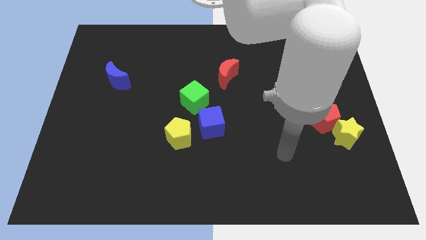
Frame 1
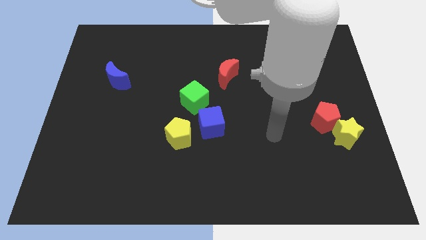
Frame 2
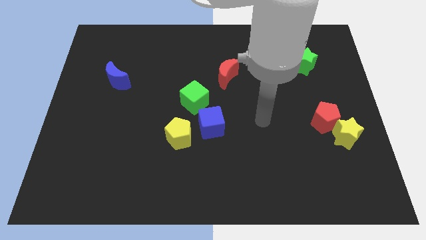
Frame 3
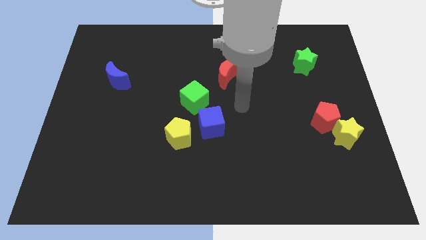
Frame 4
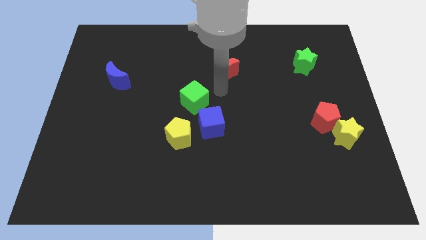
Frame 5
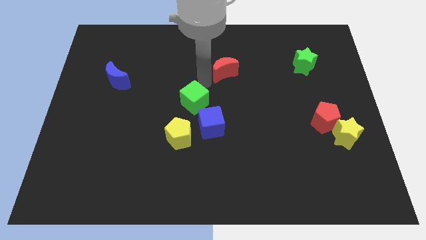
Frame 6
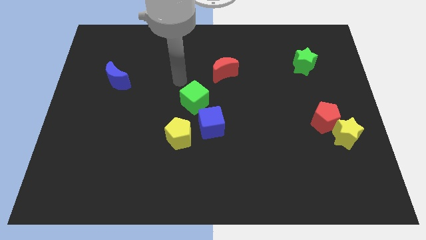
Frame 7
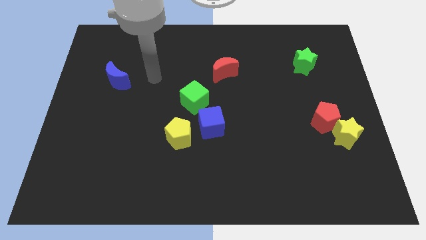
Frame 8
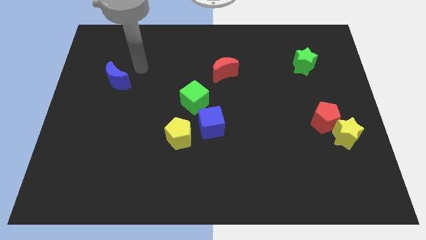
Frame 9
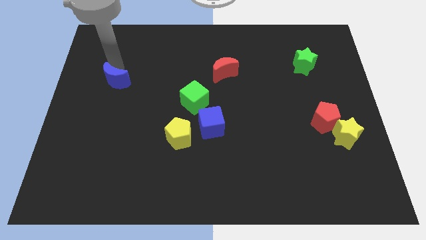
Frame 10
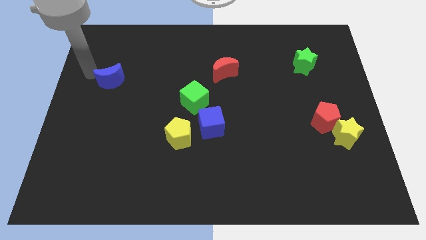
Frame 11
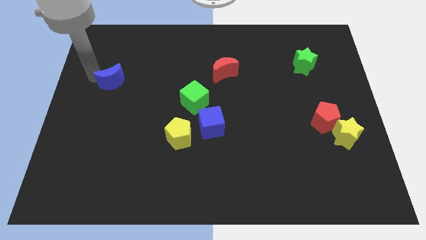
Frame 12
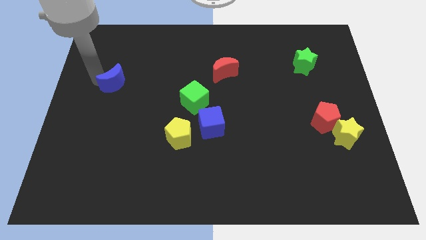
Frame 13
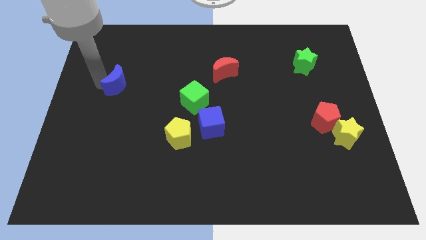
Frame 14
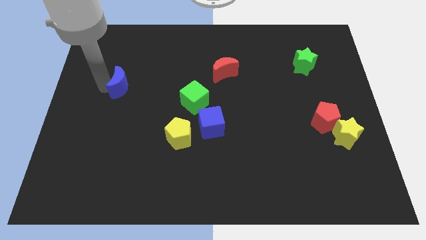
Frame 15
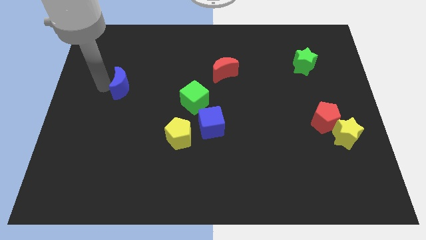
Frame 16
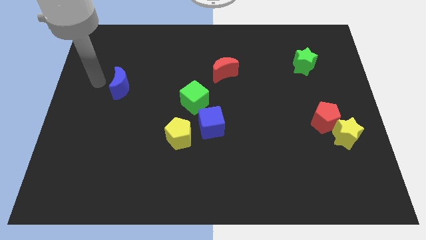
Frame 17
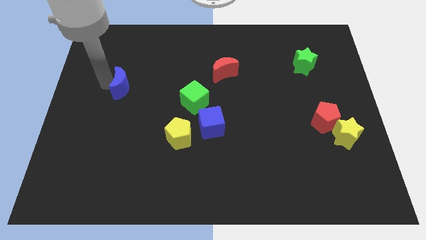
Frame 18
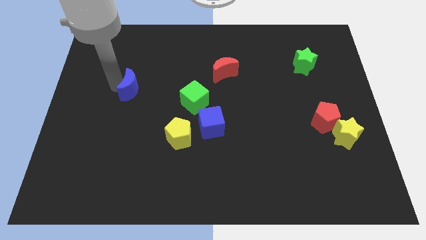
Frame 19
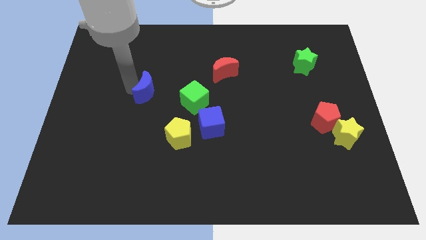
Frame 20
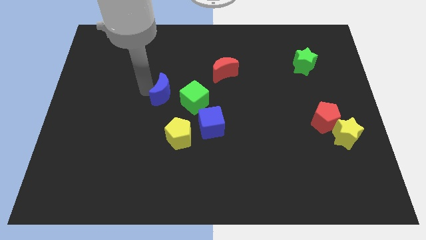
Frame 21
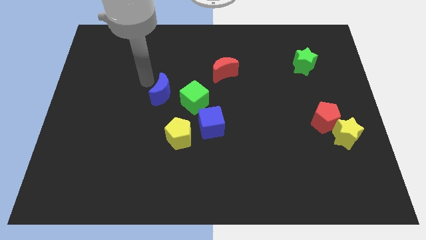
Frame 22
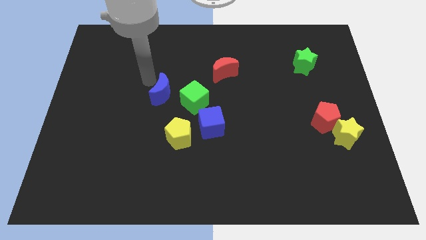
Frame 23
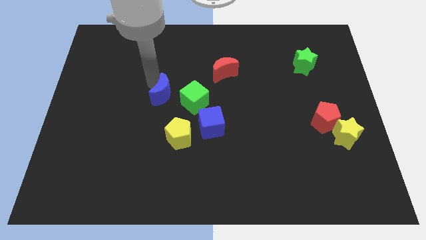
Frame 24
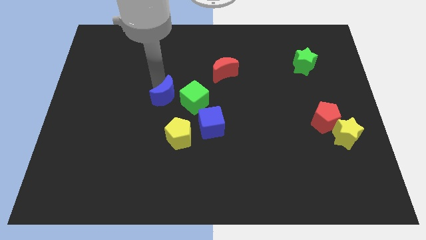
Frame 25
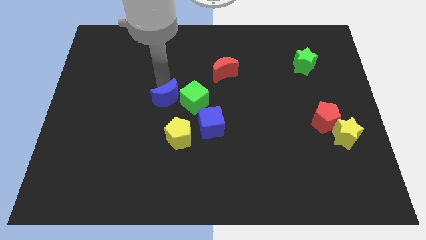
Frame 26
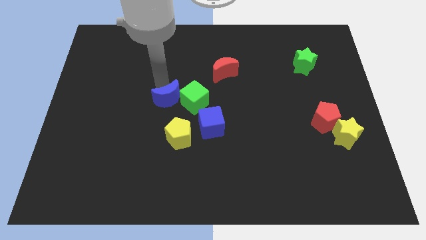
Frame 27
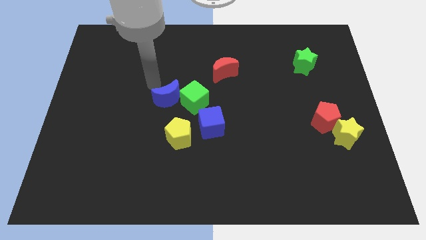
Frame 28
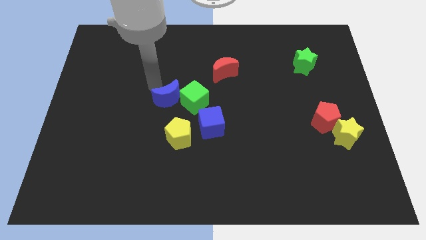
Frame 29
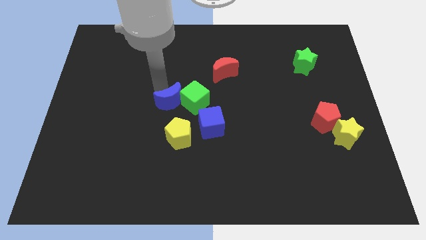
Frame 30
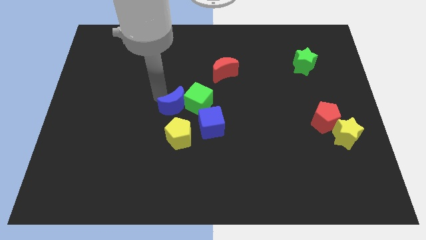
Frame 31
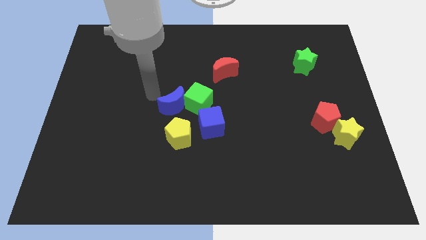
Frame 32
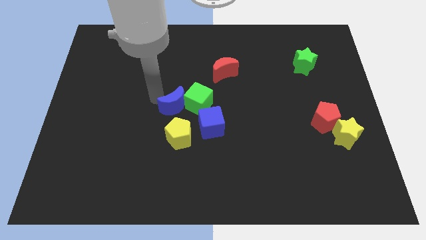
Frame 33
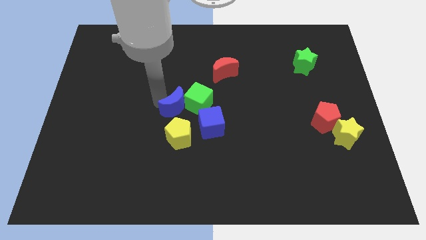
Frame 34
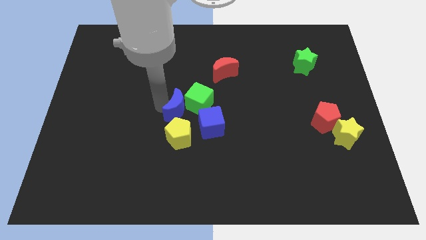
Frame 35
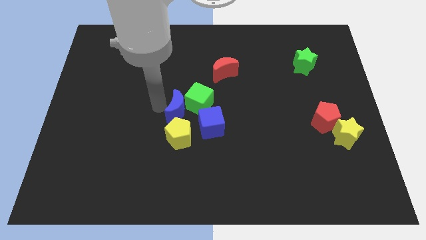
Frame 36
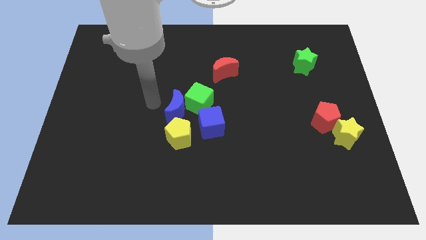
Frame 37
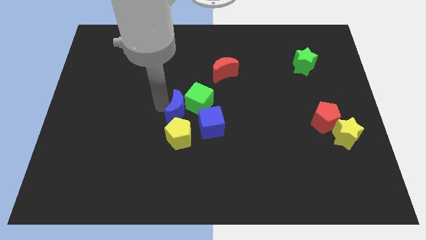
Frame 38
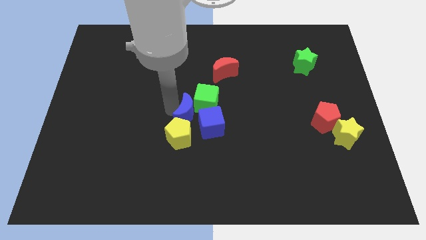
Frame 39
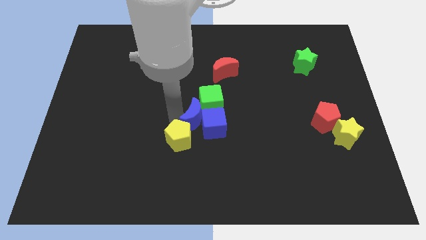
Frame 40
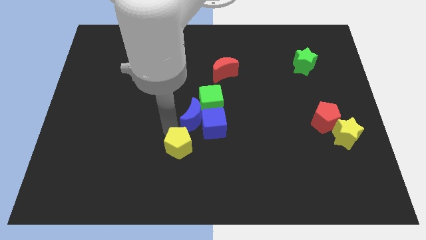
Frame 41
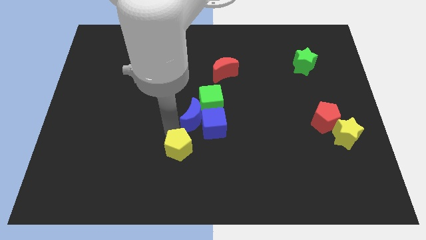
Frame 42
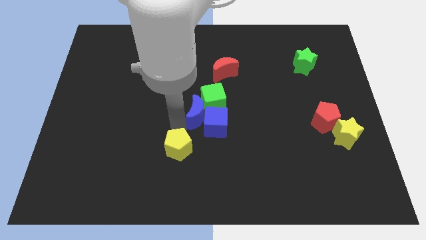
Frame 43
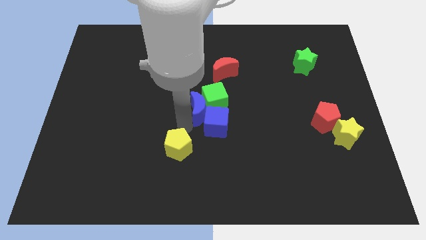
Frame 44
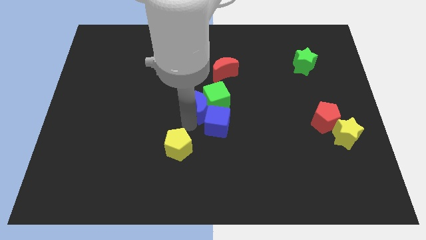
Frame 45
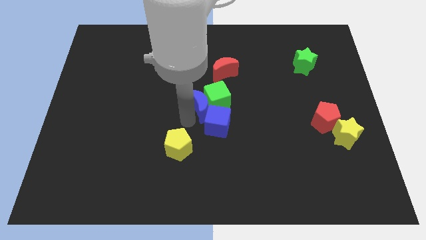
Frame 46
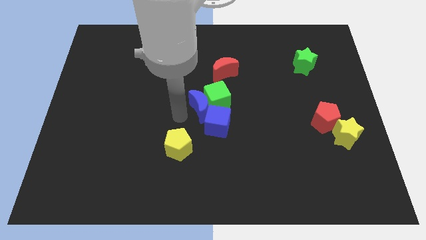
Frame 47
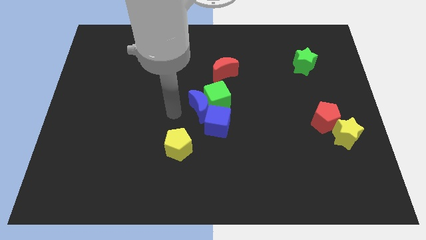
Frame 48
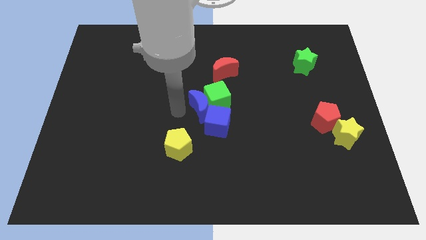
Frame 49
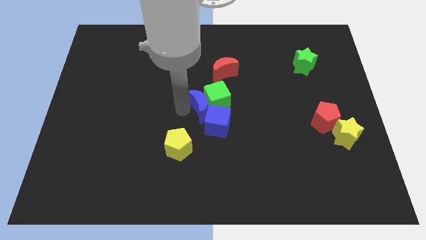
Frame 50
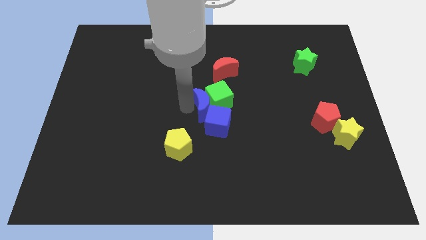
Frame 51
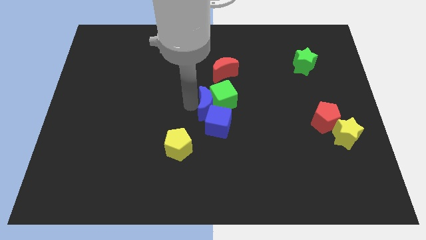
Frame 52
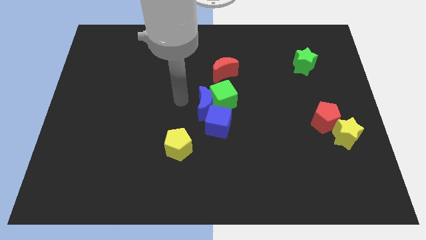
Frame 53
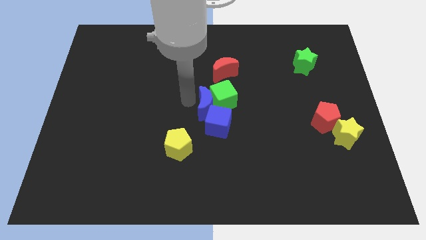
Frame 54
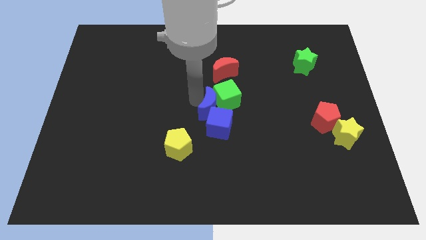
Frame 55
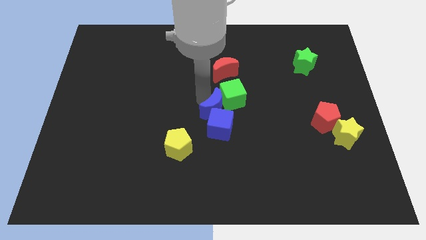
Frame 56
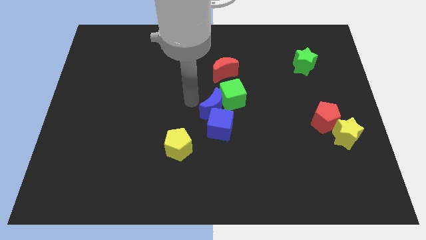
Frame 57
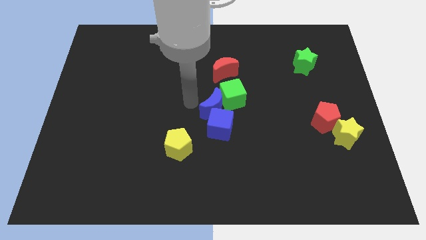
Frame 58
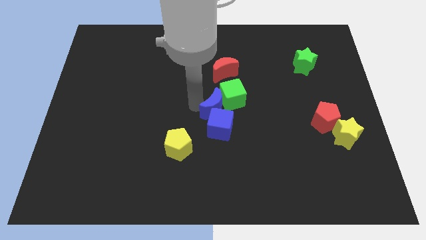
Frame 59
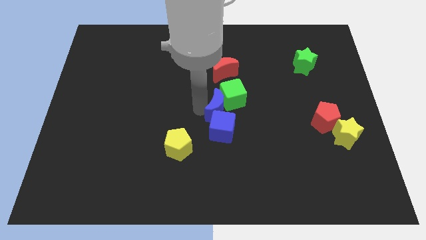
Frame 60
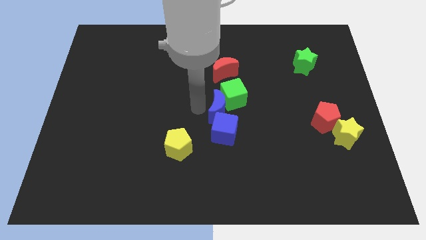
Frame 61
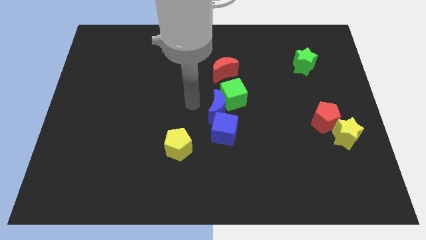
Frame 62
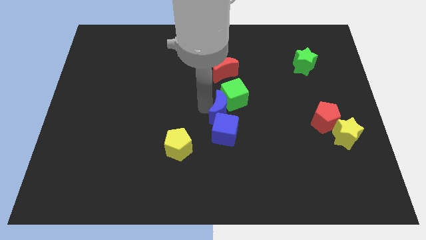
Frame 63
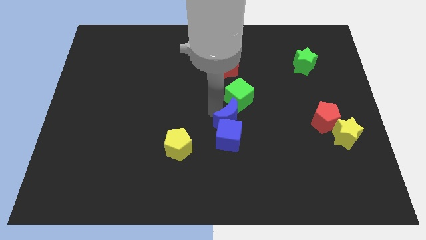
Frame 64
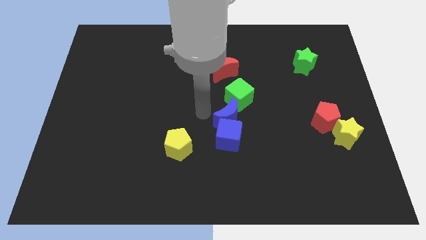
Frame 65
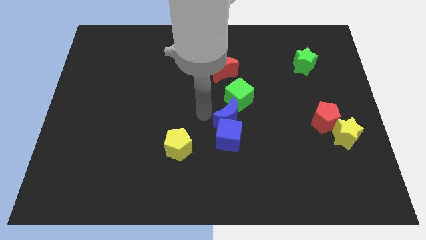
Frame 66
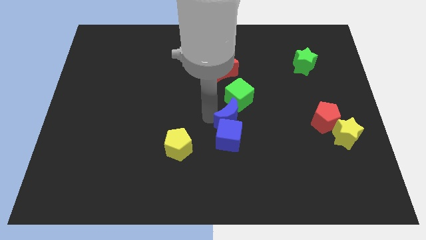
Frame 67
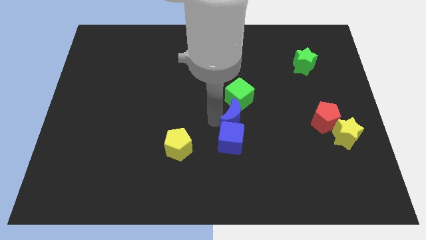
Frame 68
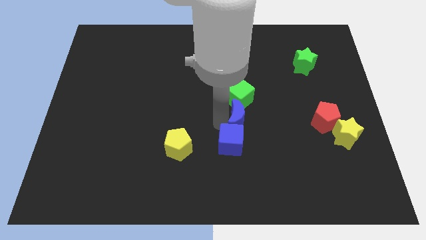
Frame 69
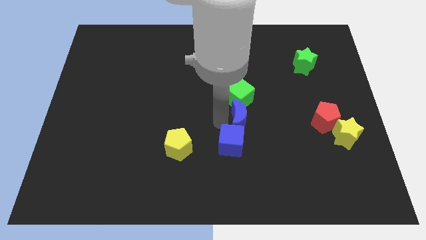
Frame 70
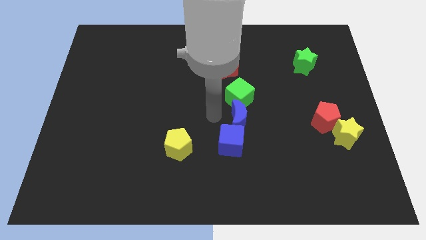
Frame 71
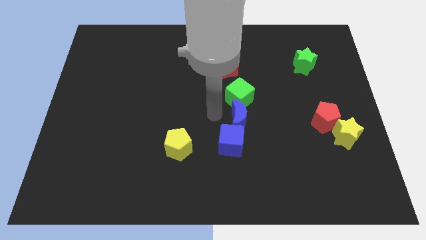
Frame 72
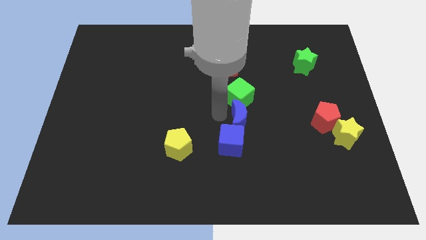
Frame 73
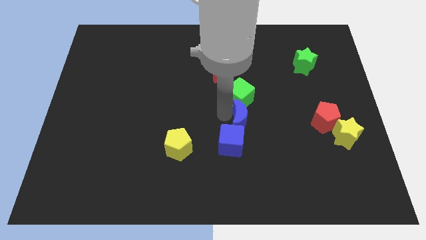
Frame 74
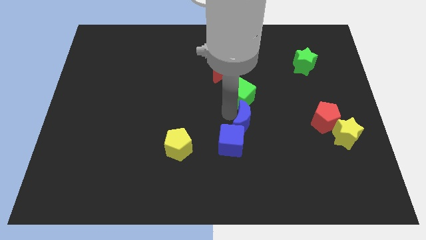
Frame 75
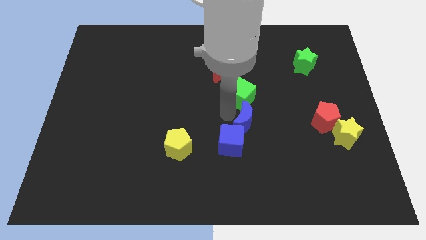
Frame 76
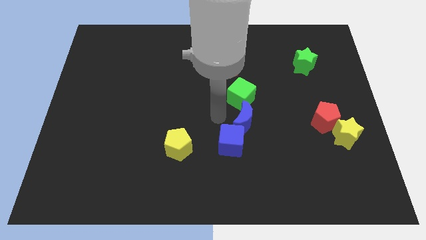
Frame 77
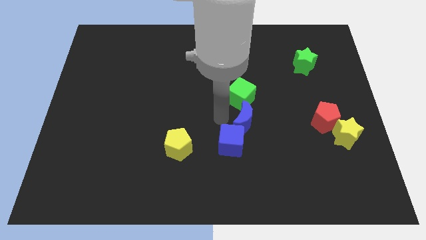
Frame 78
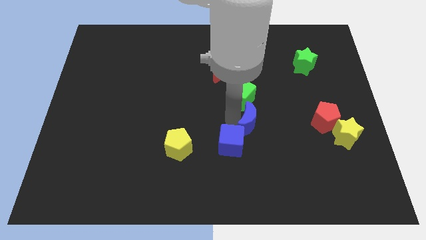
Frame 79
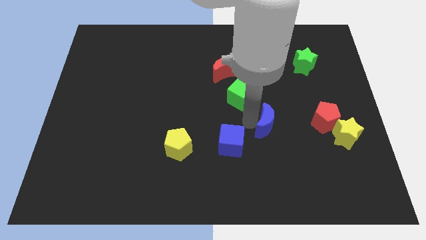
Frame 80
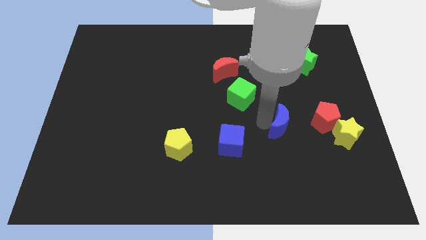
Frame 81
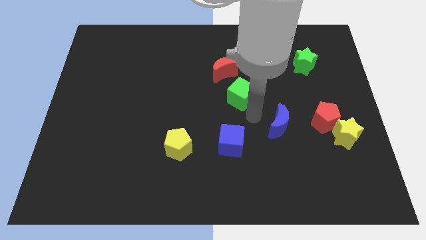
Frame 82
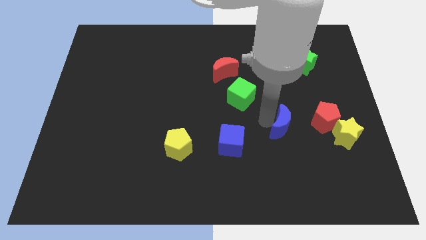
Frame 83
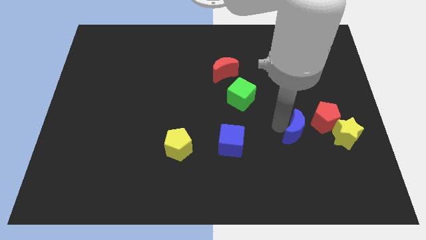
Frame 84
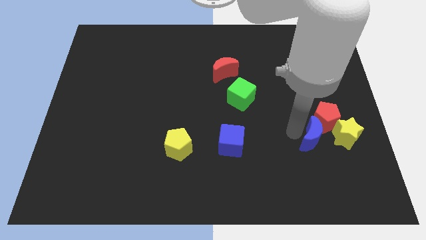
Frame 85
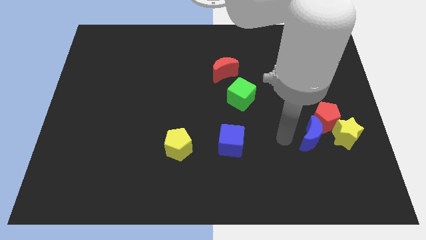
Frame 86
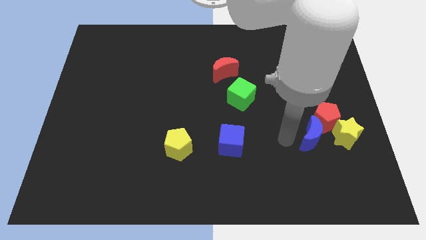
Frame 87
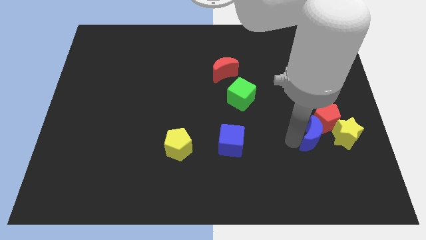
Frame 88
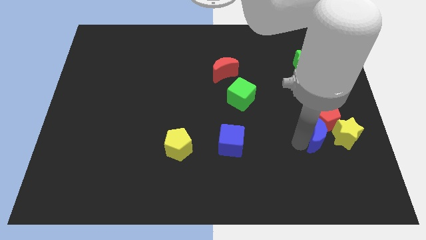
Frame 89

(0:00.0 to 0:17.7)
move the blue moon to the yellow star
